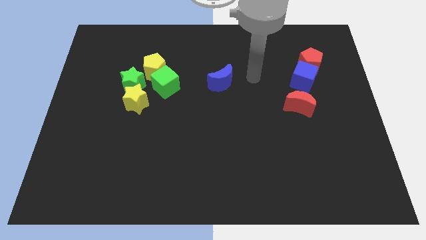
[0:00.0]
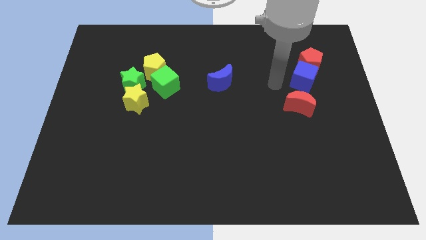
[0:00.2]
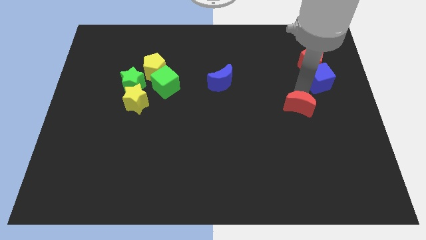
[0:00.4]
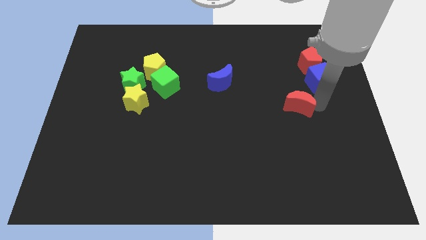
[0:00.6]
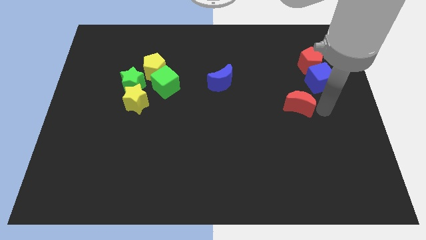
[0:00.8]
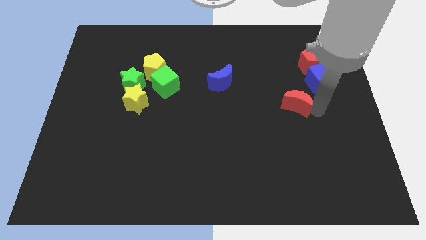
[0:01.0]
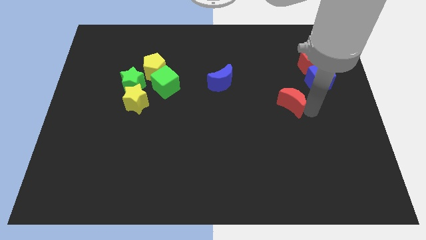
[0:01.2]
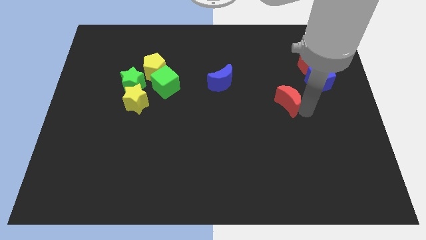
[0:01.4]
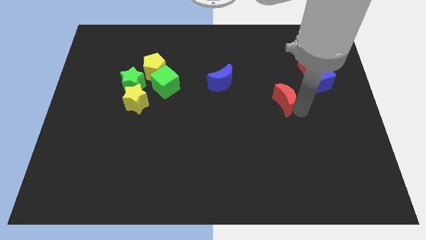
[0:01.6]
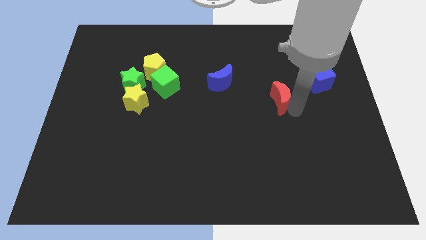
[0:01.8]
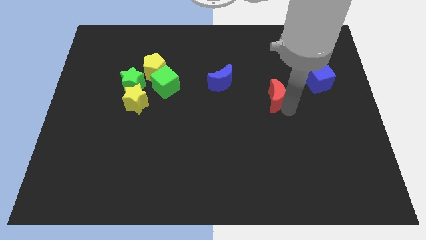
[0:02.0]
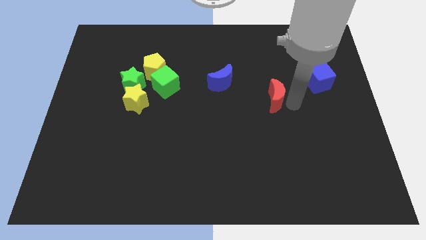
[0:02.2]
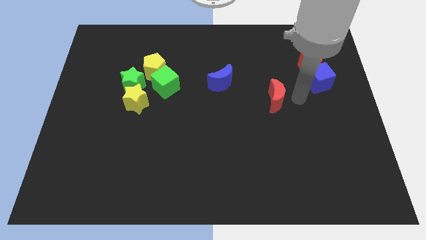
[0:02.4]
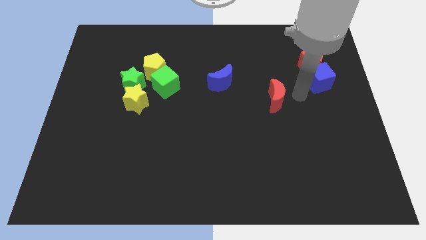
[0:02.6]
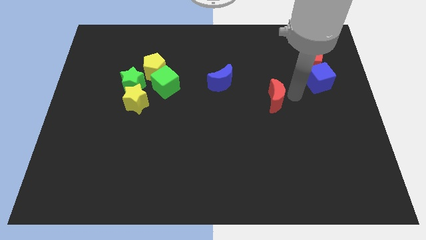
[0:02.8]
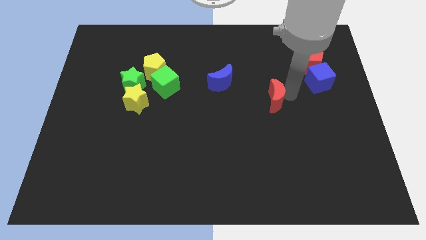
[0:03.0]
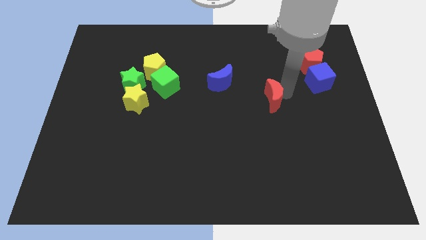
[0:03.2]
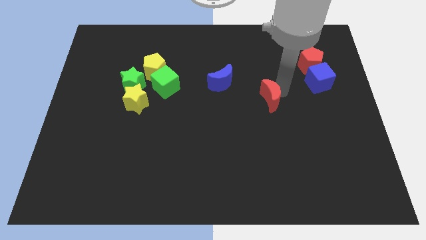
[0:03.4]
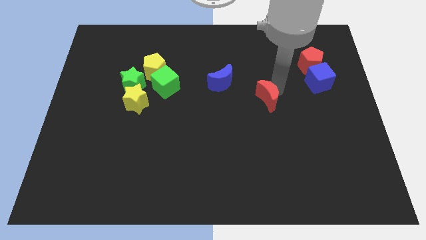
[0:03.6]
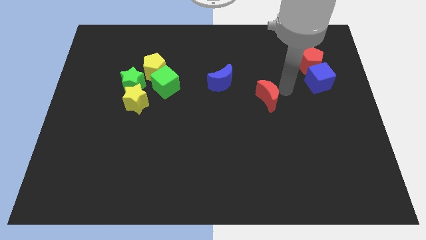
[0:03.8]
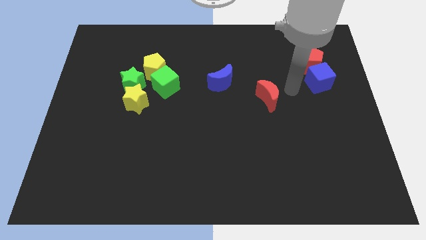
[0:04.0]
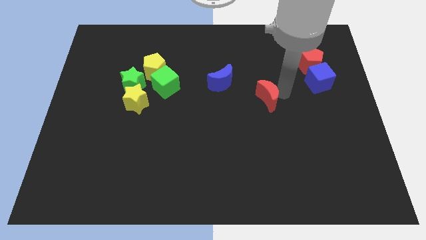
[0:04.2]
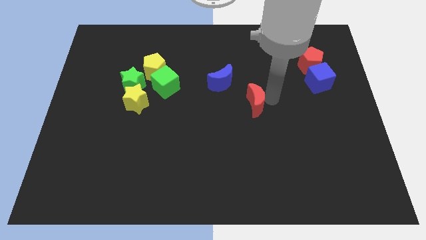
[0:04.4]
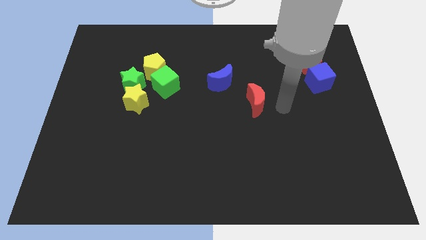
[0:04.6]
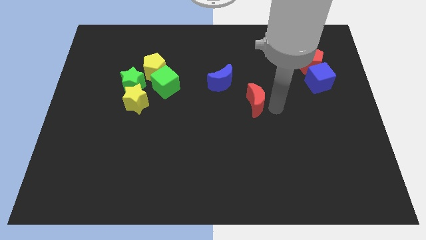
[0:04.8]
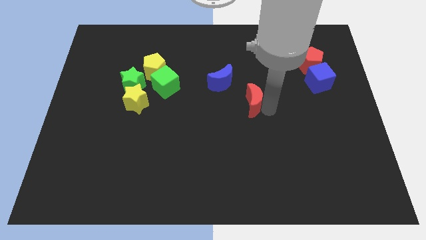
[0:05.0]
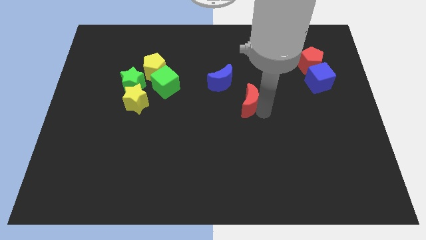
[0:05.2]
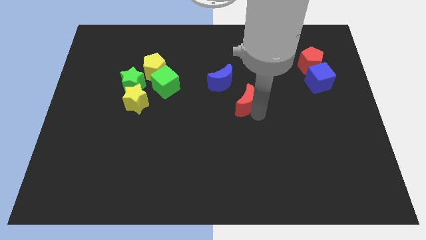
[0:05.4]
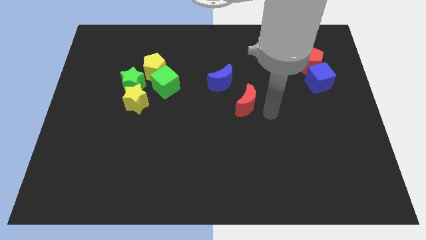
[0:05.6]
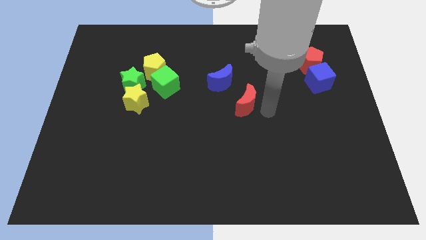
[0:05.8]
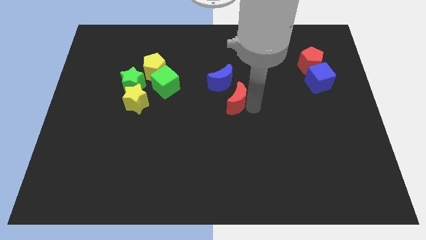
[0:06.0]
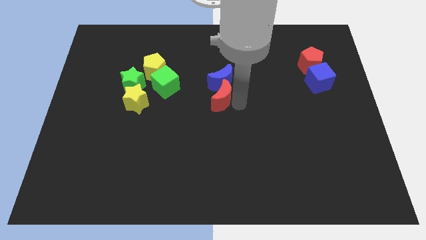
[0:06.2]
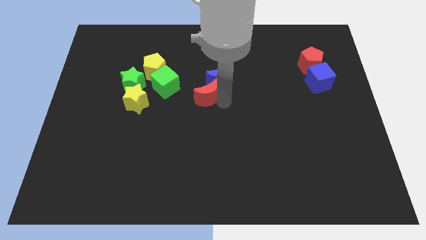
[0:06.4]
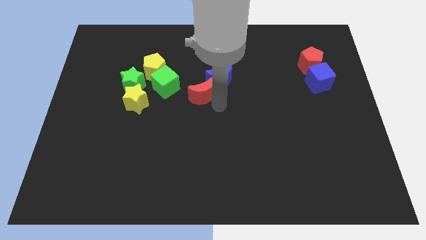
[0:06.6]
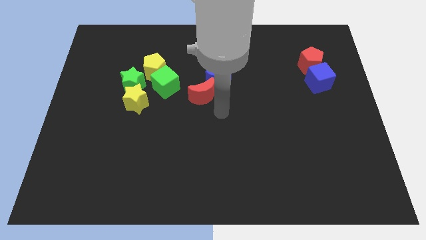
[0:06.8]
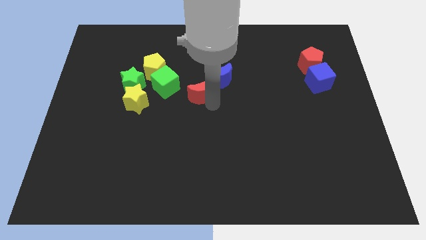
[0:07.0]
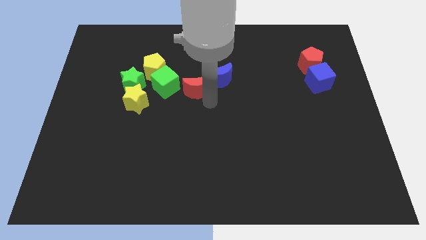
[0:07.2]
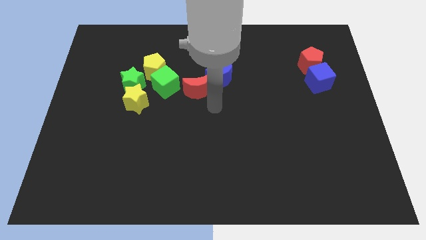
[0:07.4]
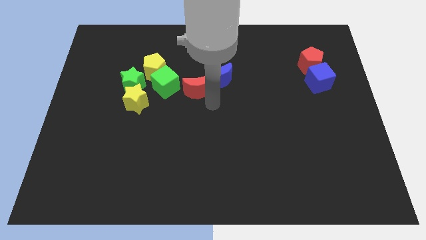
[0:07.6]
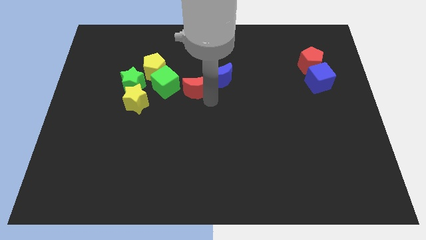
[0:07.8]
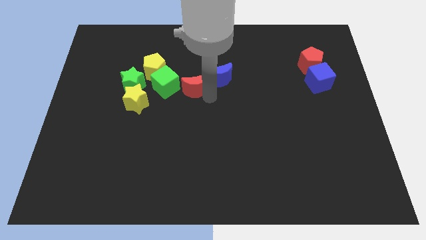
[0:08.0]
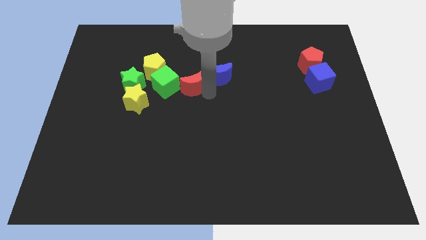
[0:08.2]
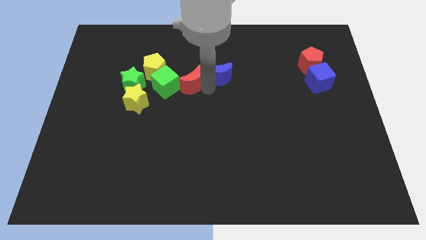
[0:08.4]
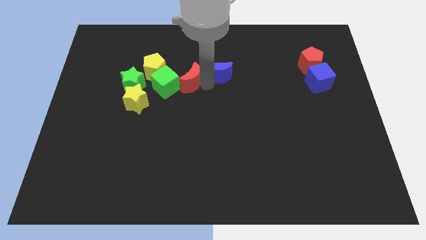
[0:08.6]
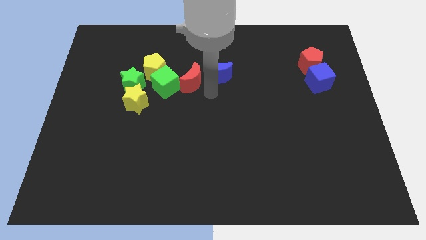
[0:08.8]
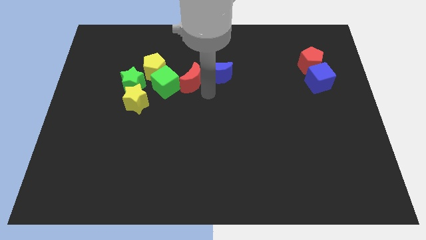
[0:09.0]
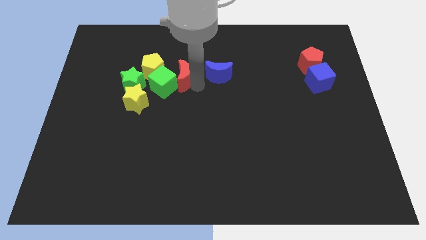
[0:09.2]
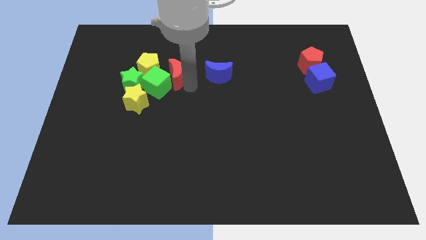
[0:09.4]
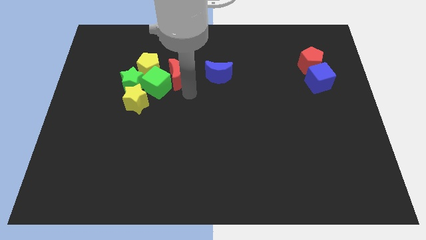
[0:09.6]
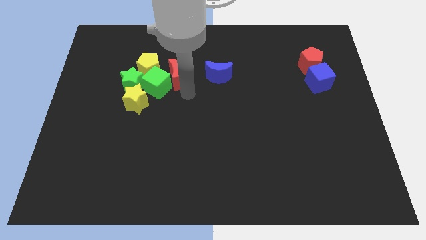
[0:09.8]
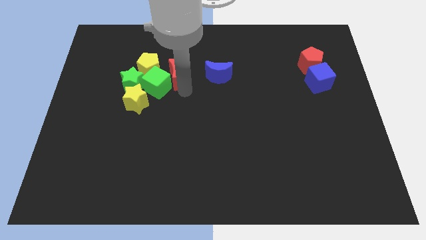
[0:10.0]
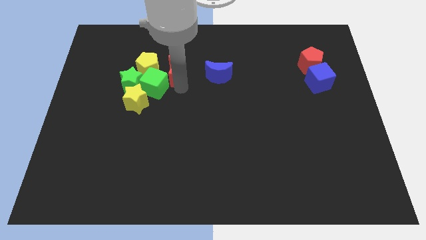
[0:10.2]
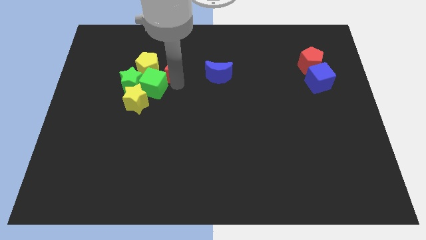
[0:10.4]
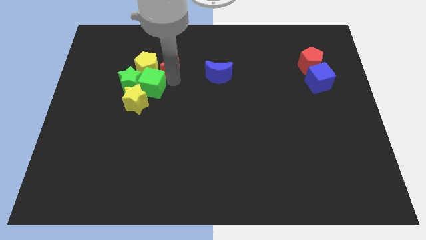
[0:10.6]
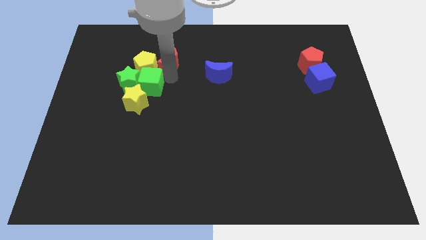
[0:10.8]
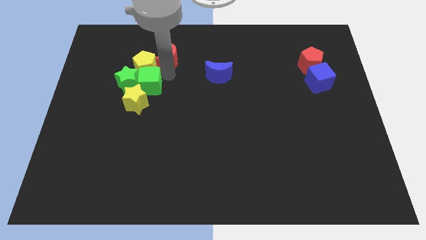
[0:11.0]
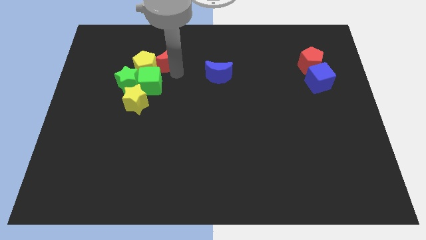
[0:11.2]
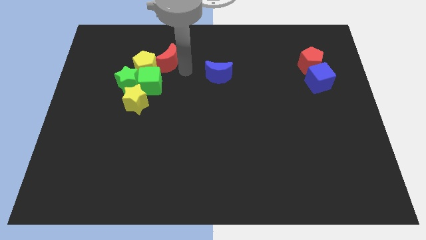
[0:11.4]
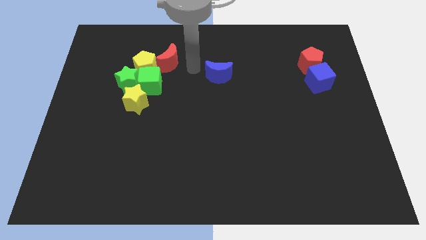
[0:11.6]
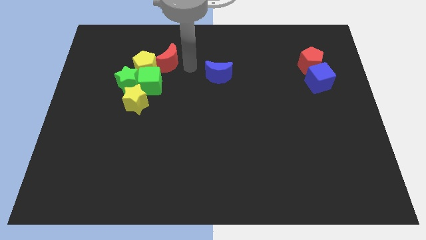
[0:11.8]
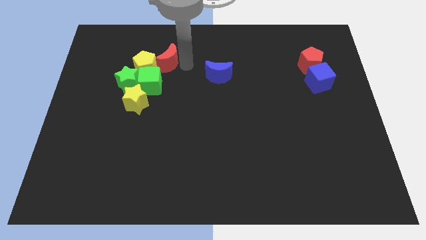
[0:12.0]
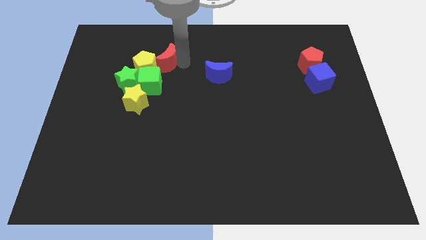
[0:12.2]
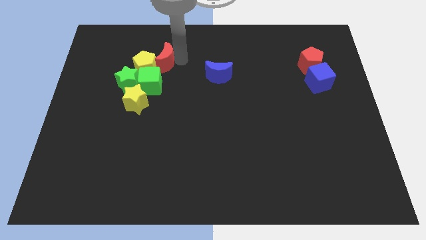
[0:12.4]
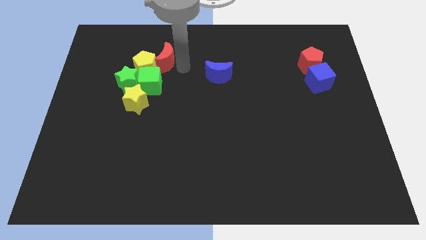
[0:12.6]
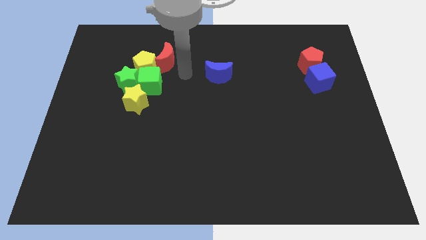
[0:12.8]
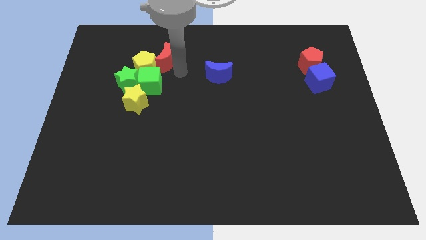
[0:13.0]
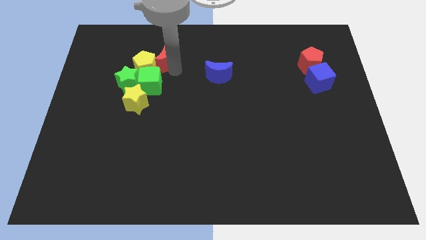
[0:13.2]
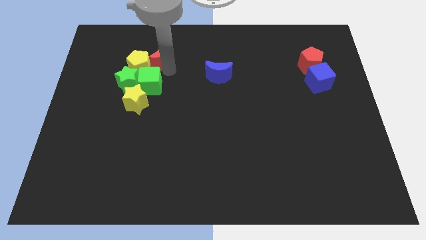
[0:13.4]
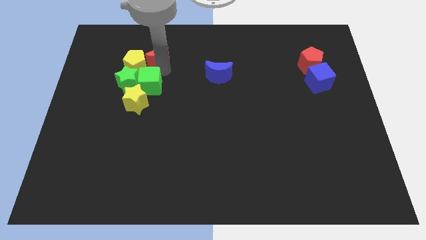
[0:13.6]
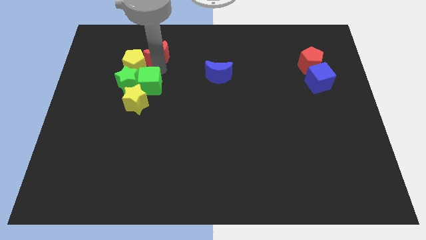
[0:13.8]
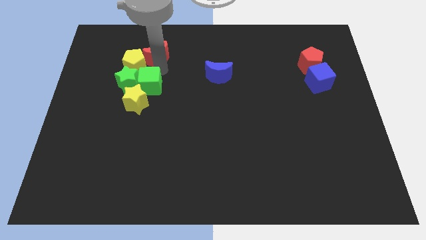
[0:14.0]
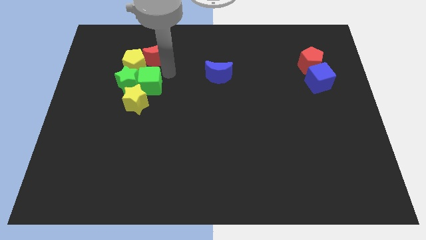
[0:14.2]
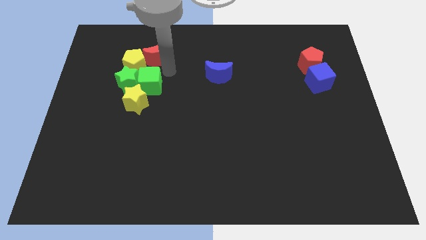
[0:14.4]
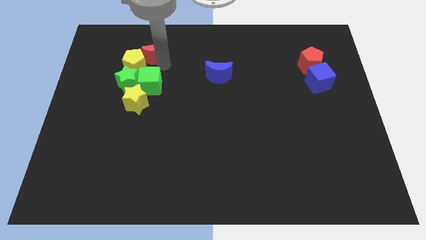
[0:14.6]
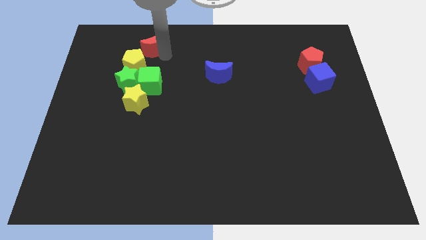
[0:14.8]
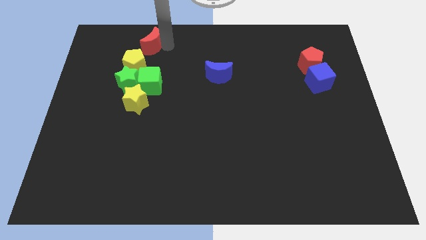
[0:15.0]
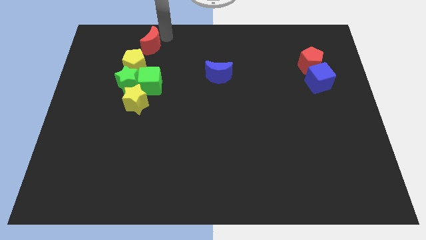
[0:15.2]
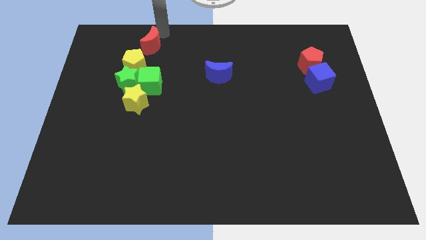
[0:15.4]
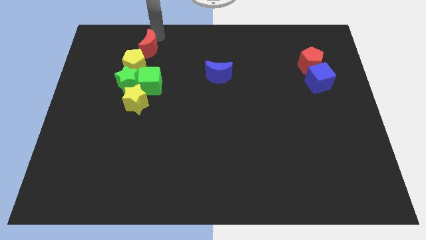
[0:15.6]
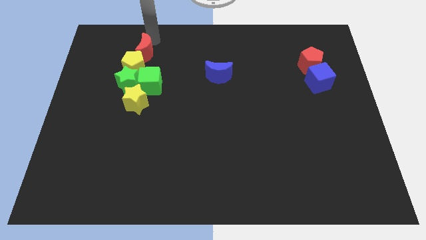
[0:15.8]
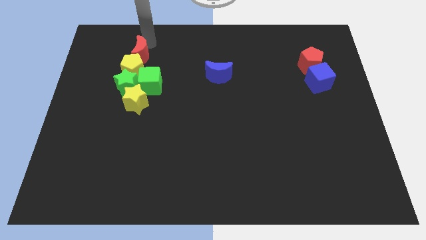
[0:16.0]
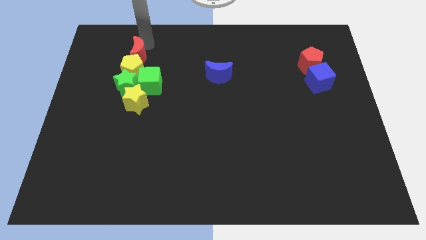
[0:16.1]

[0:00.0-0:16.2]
slide the red moon to the top left side of the green cube
